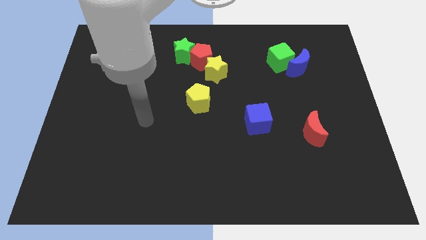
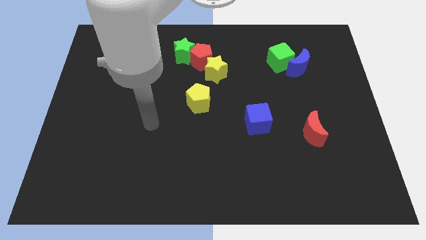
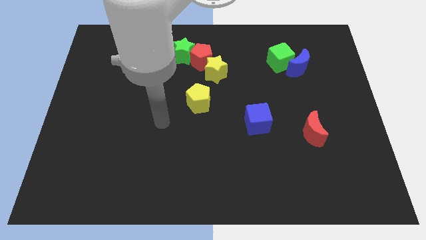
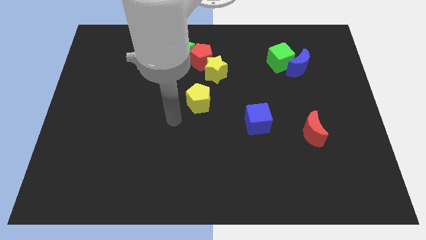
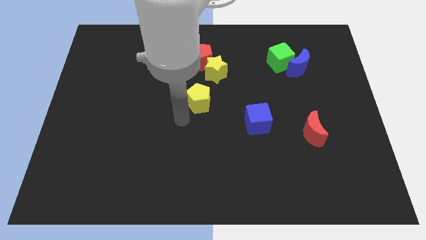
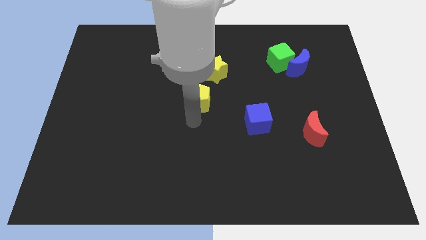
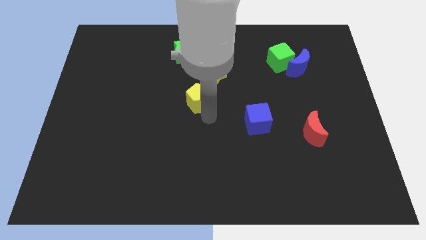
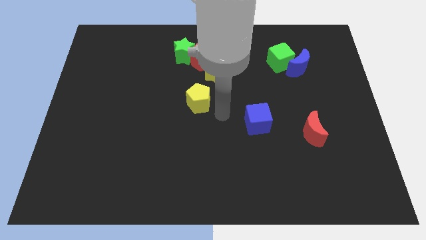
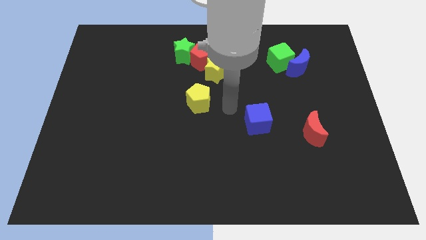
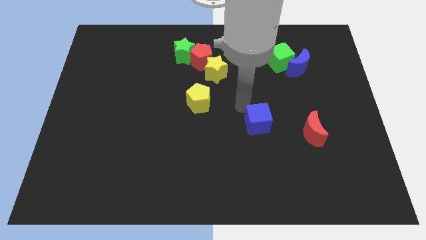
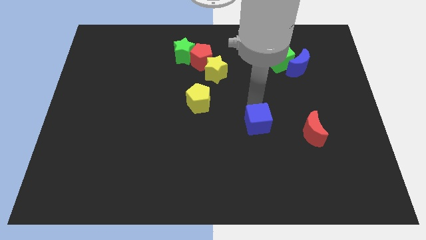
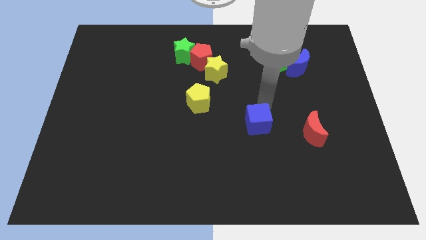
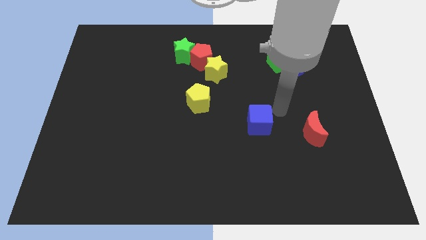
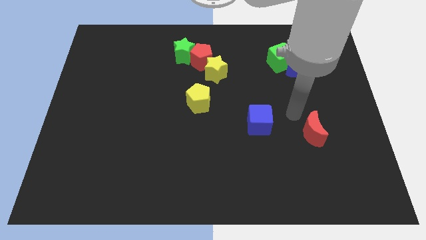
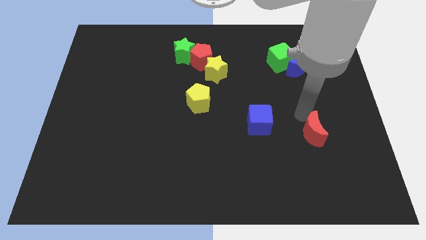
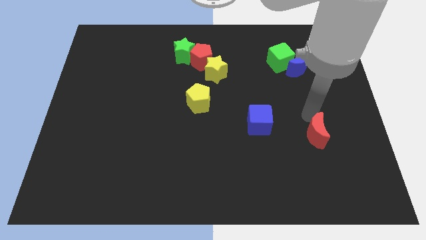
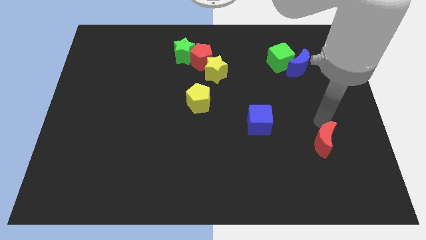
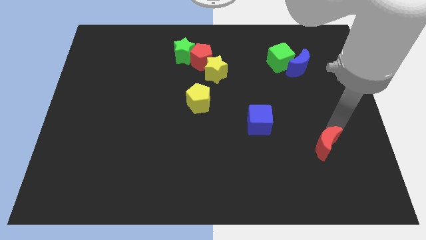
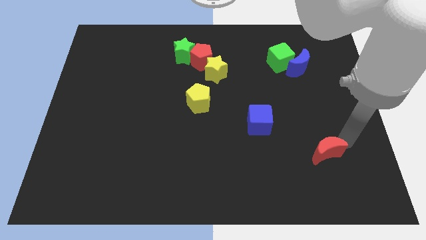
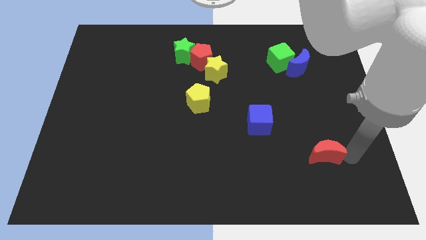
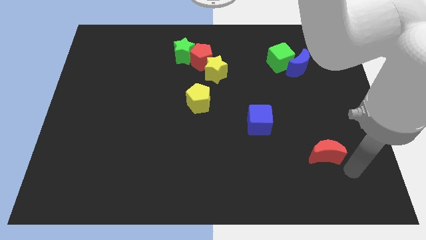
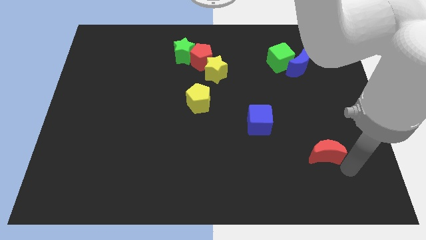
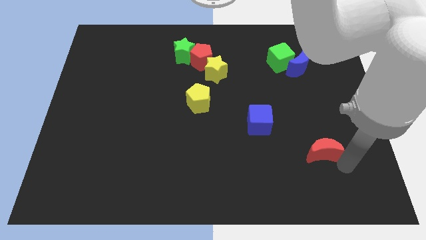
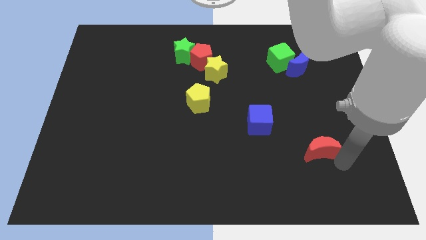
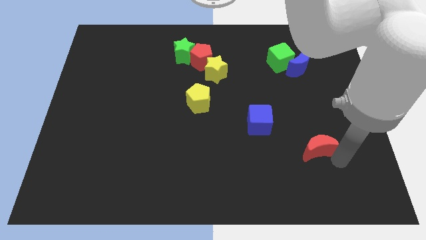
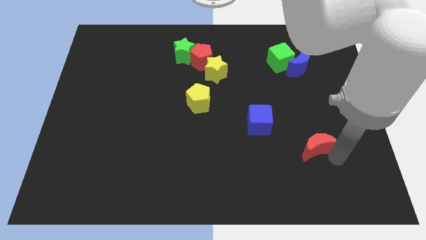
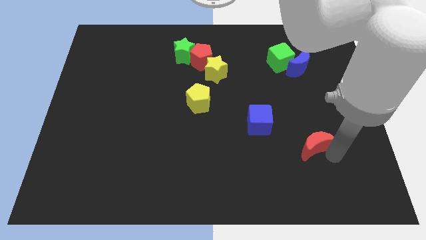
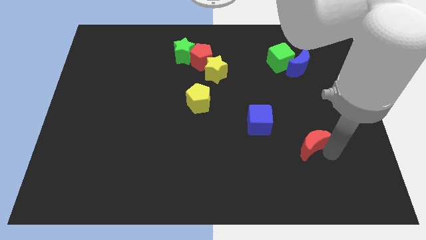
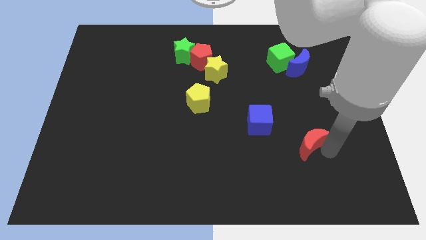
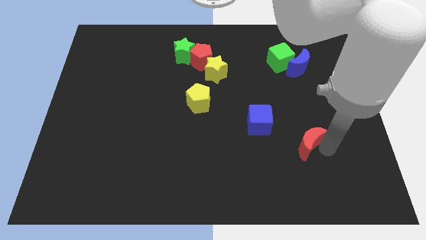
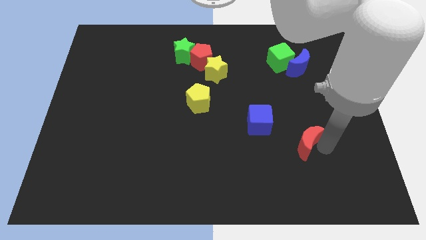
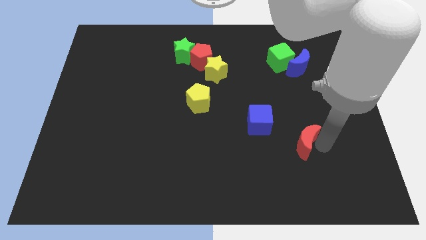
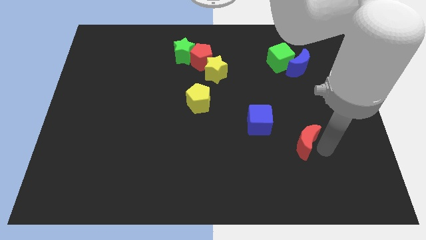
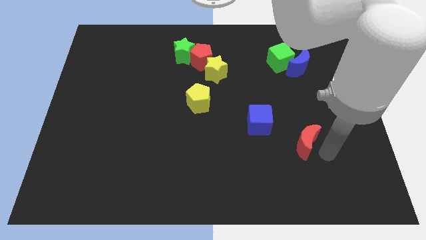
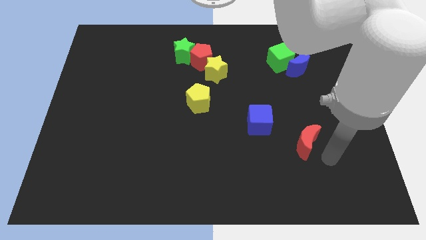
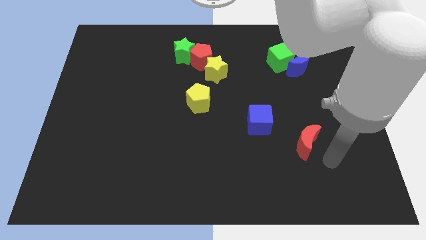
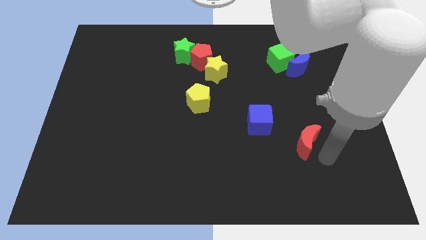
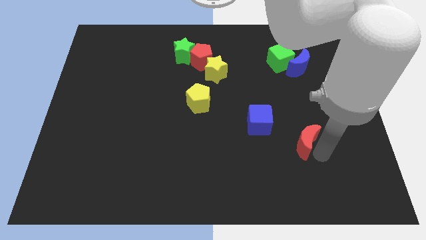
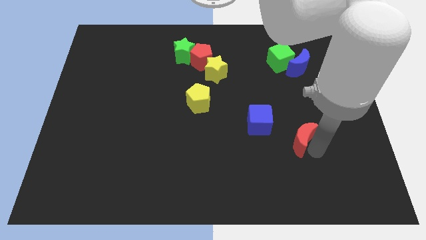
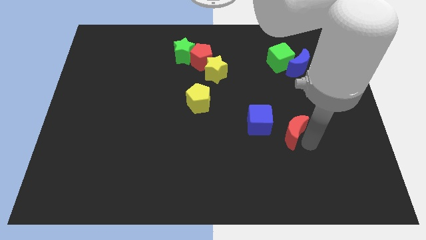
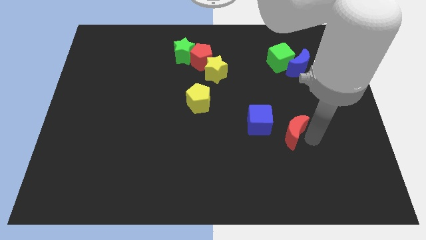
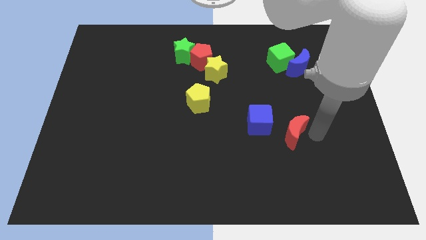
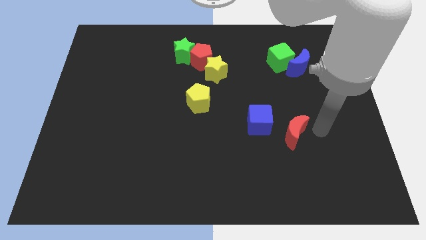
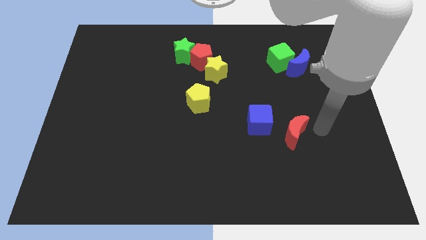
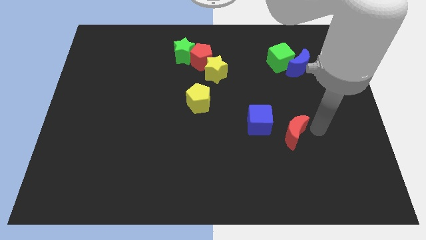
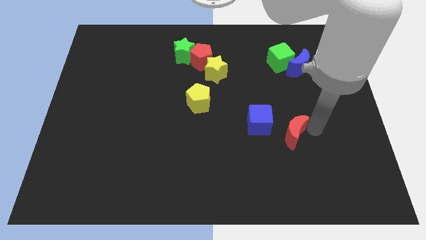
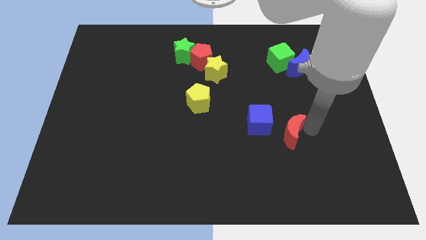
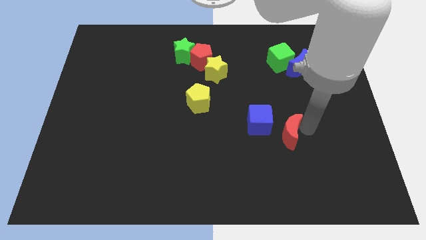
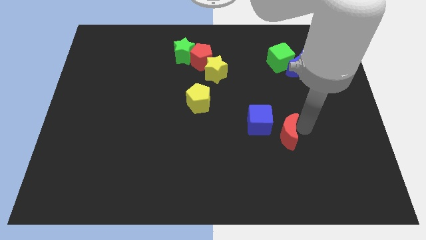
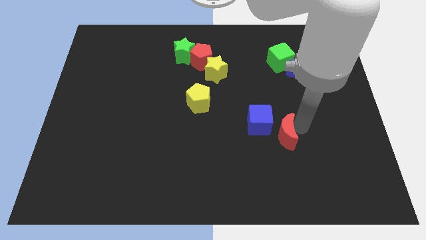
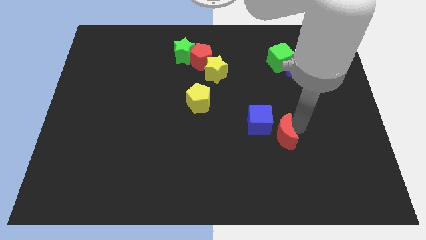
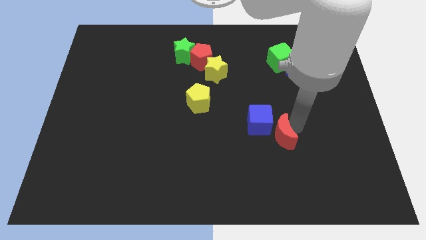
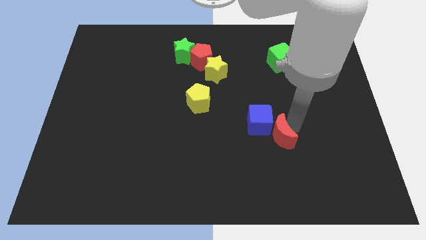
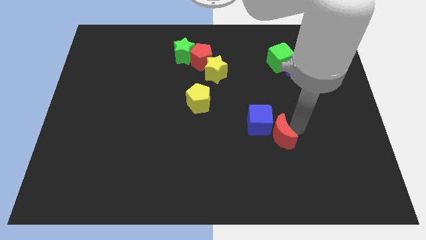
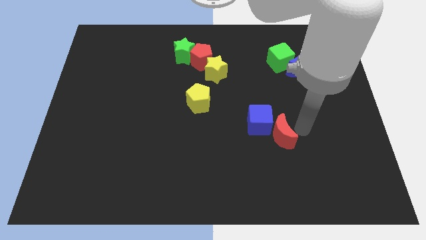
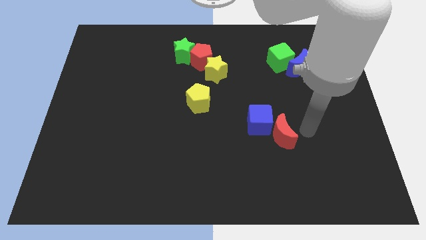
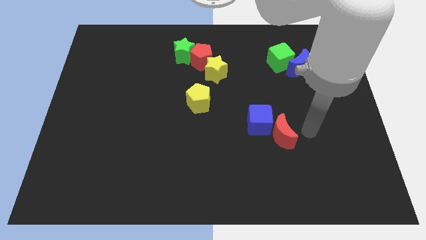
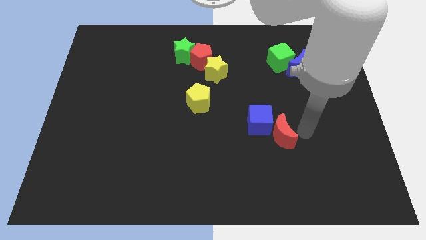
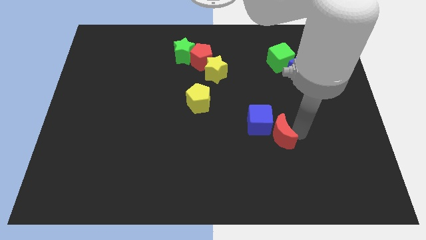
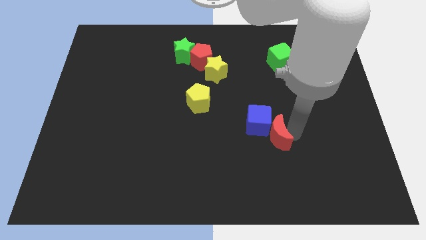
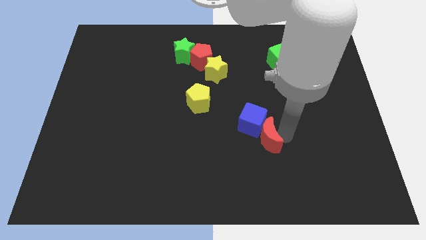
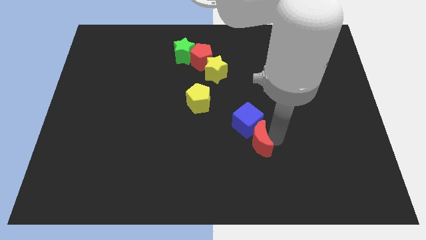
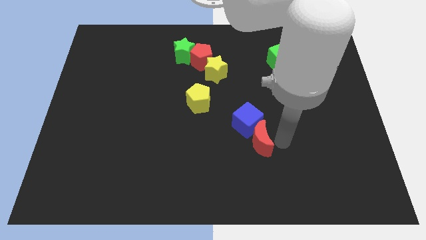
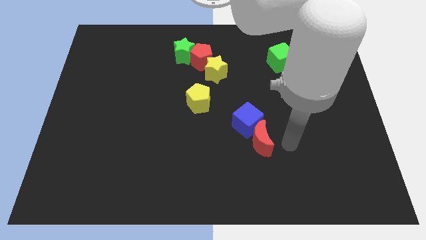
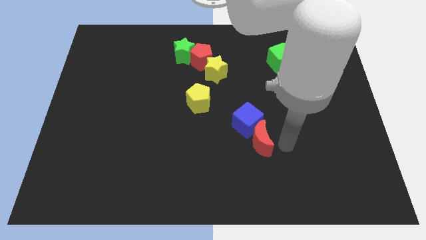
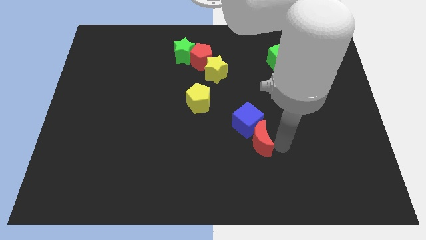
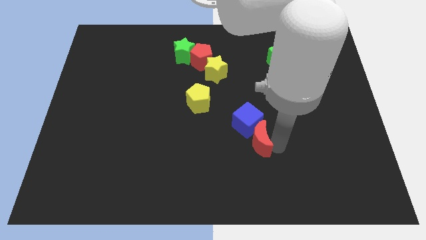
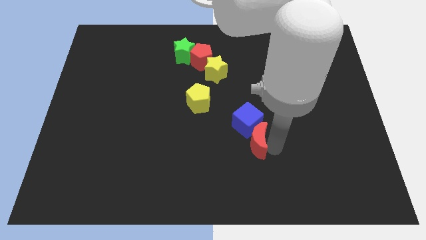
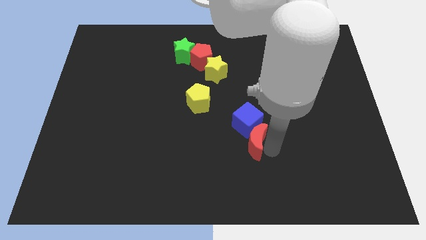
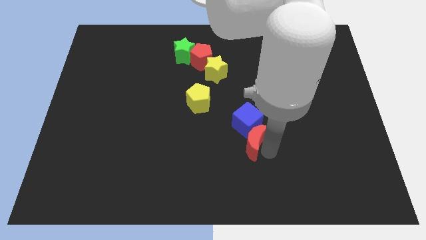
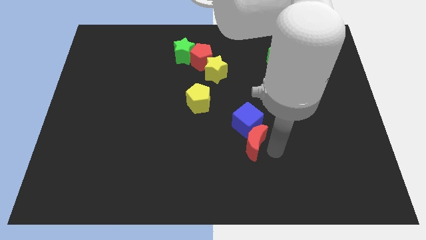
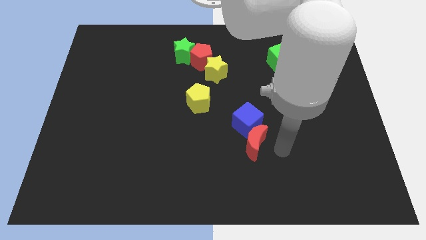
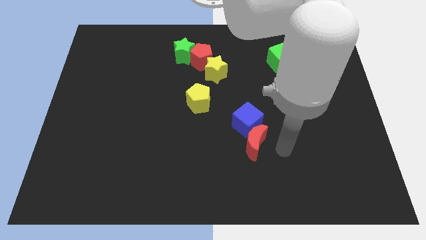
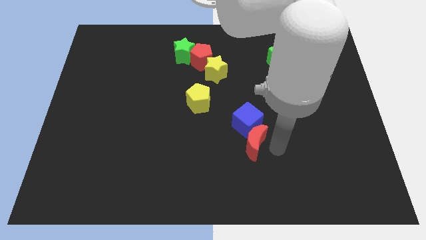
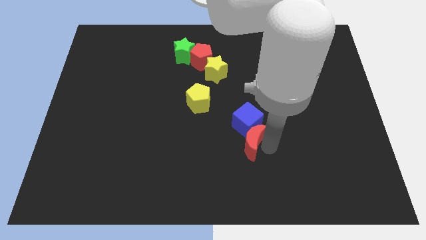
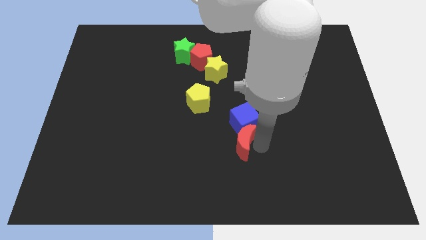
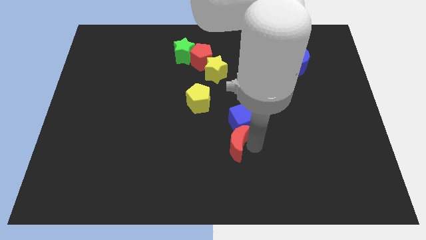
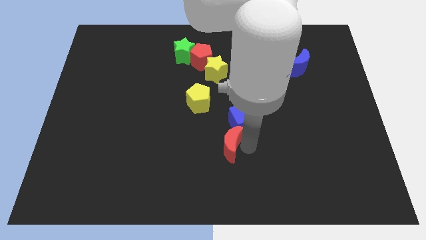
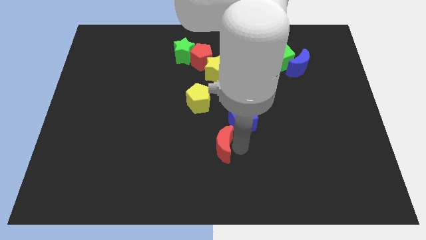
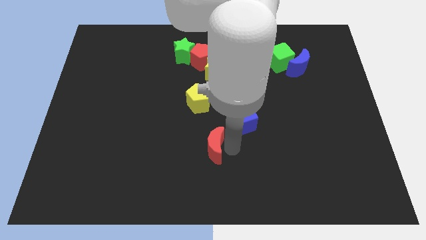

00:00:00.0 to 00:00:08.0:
slide the red moon below the yellow pentagon
